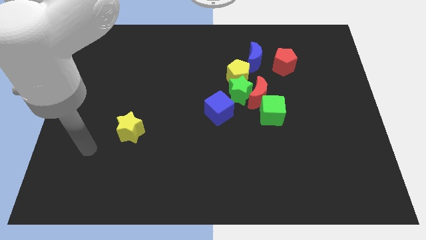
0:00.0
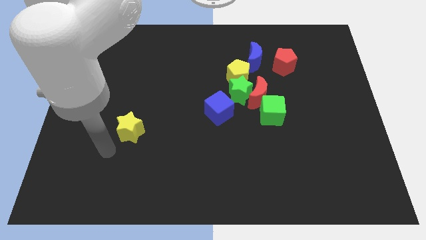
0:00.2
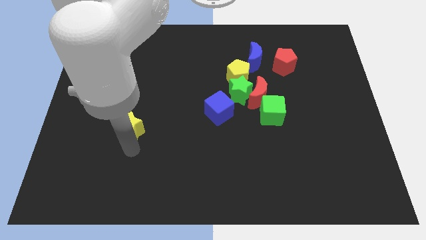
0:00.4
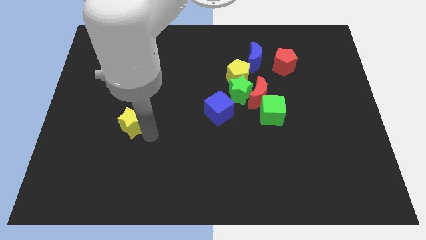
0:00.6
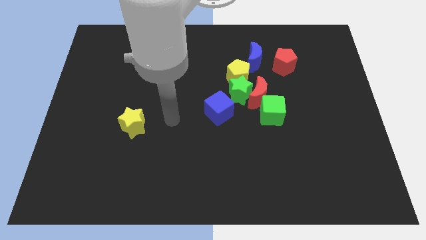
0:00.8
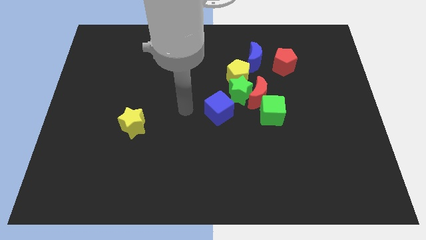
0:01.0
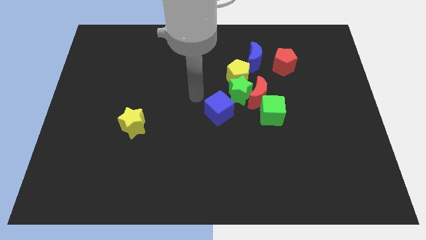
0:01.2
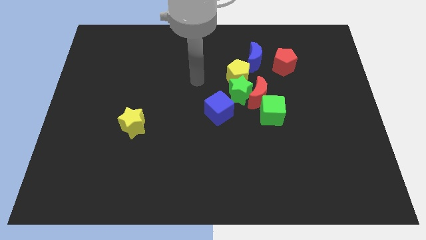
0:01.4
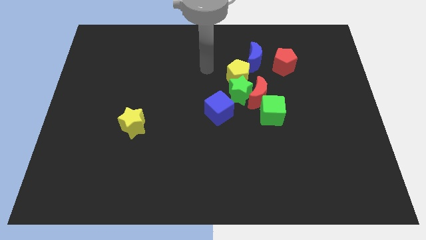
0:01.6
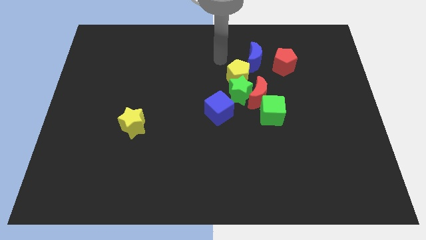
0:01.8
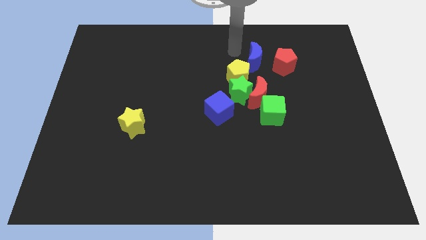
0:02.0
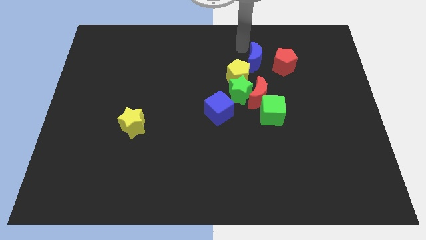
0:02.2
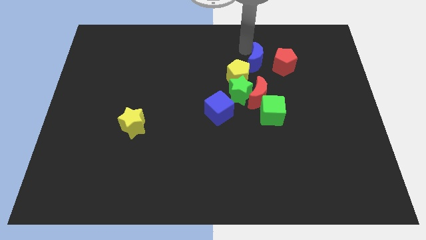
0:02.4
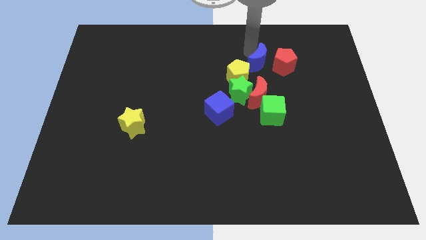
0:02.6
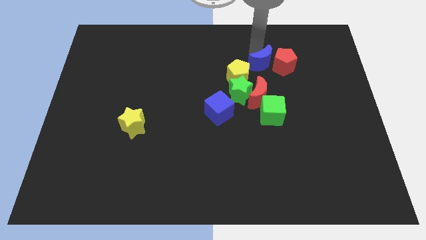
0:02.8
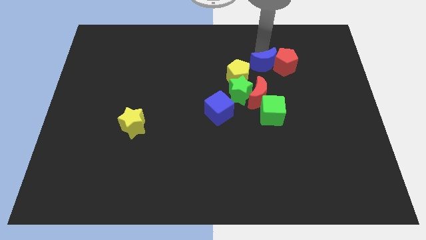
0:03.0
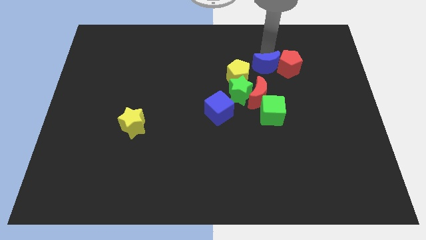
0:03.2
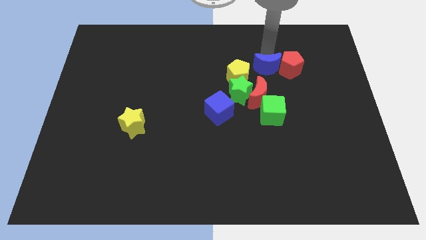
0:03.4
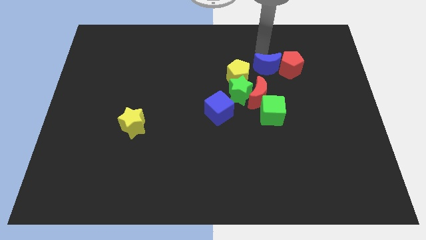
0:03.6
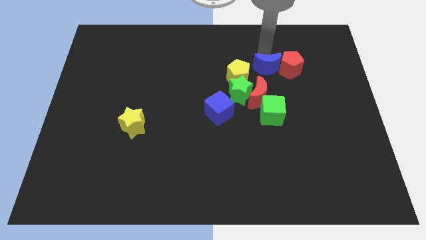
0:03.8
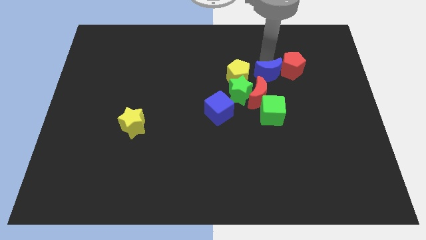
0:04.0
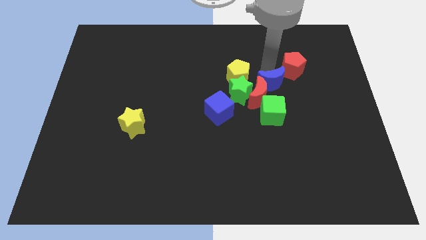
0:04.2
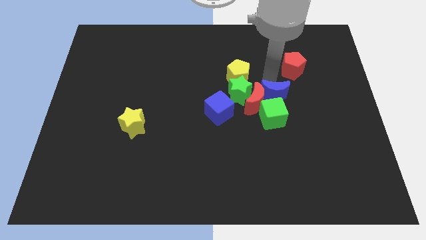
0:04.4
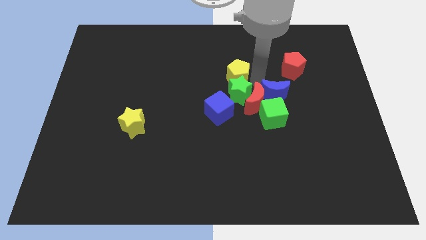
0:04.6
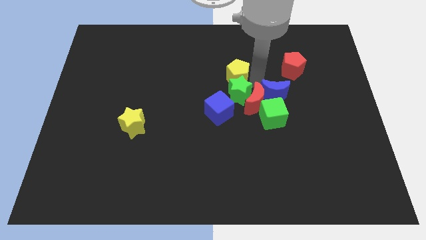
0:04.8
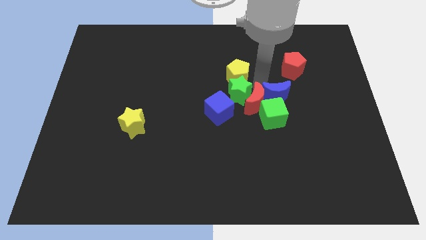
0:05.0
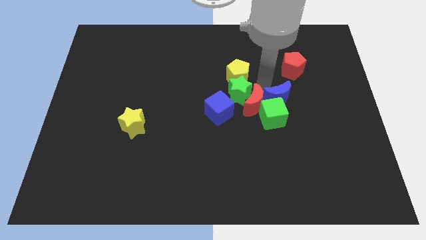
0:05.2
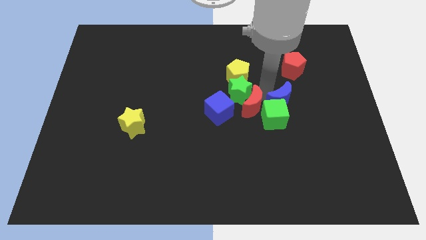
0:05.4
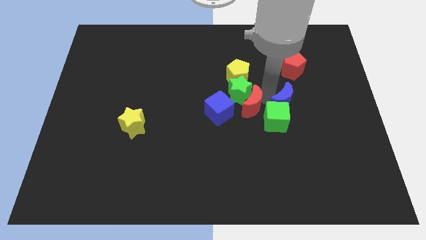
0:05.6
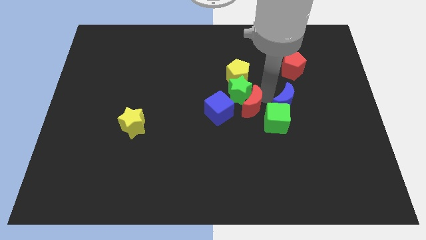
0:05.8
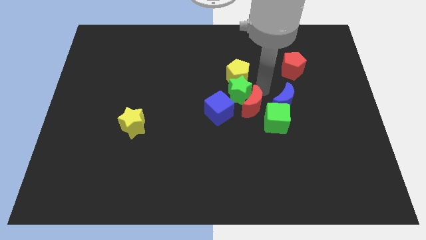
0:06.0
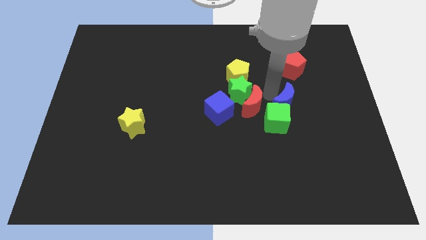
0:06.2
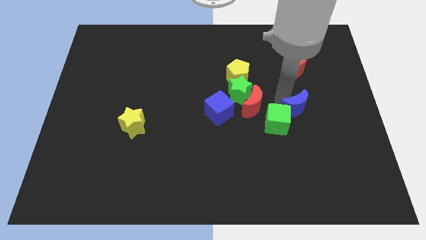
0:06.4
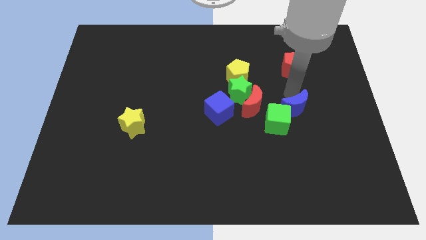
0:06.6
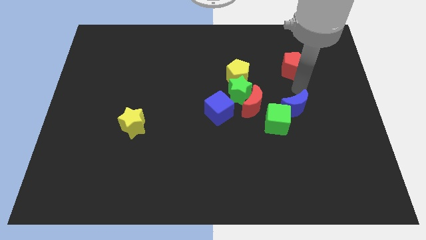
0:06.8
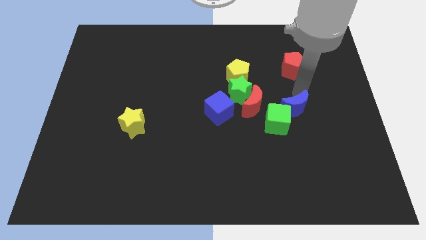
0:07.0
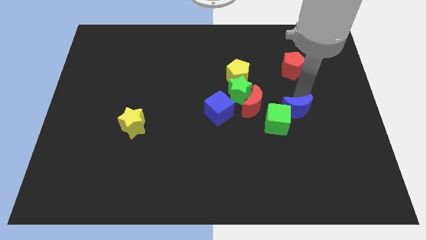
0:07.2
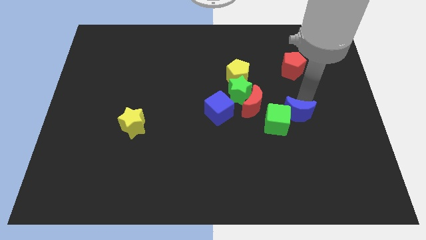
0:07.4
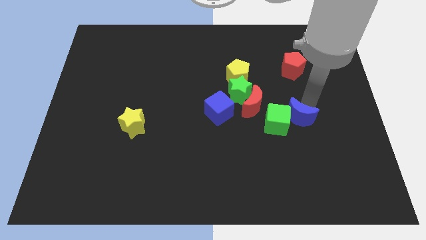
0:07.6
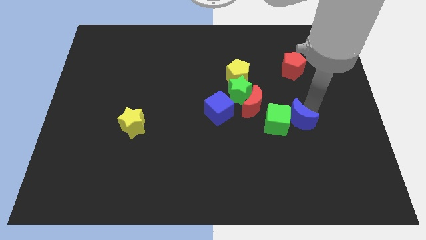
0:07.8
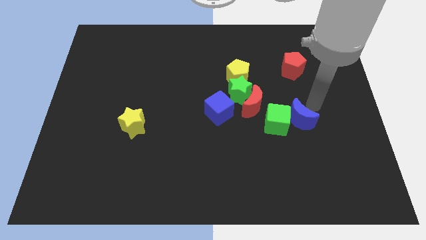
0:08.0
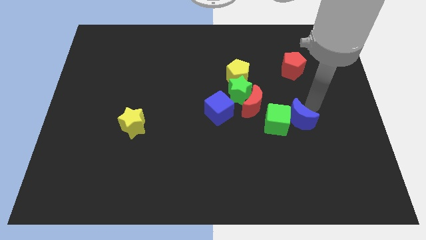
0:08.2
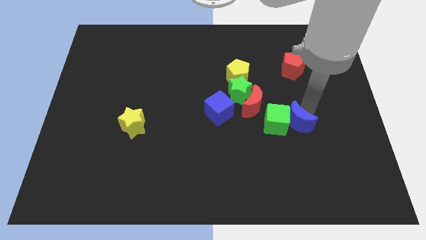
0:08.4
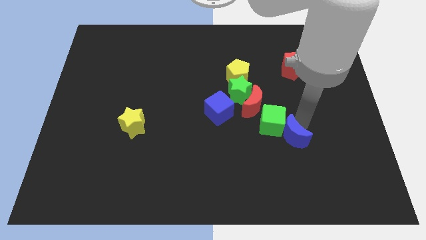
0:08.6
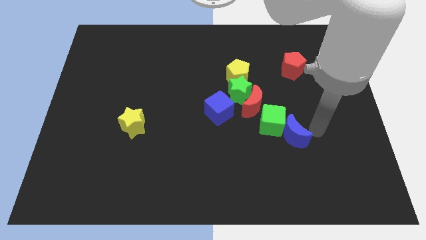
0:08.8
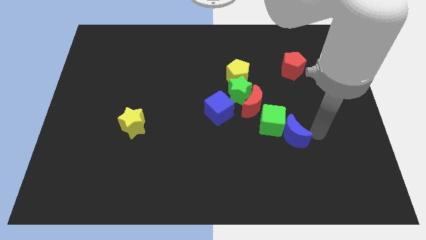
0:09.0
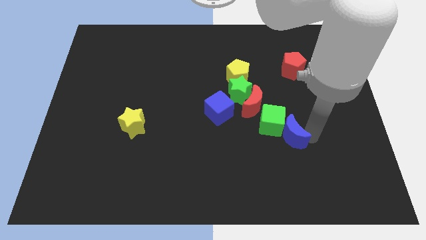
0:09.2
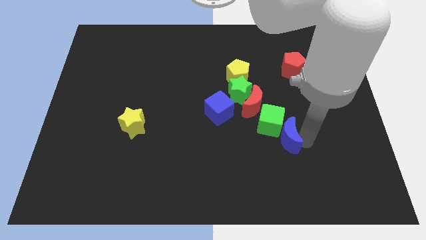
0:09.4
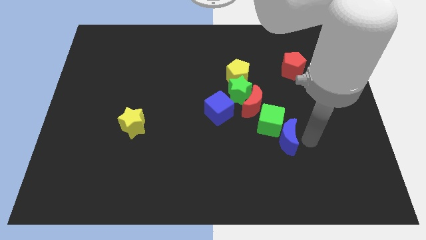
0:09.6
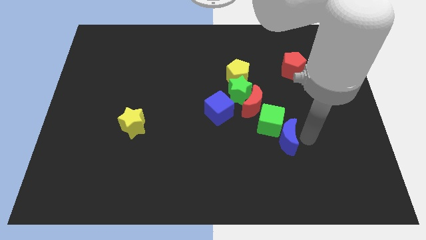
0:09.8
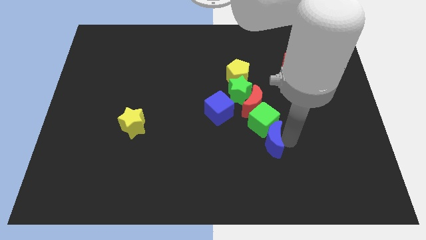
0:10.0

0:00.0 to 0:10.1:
push the blue moon diagonally down and to the left of the green cube
